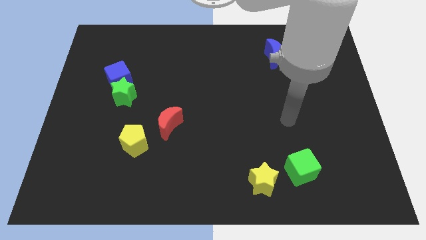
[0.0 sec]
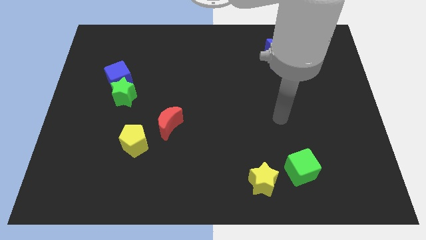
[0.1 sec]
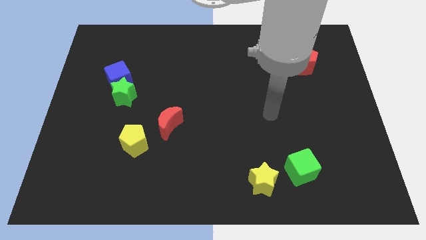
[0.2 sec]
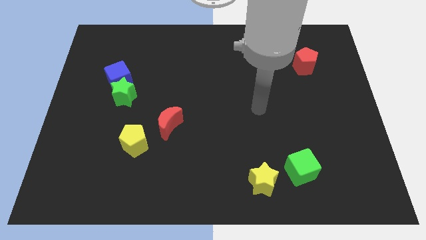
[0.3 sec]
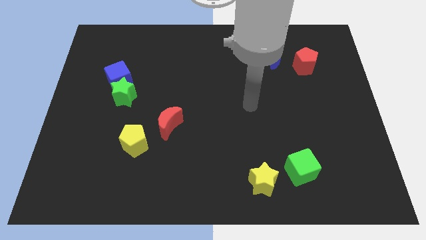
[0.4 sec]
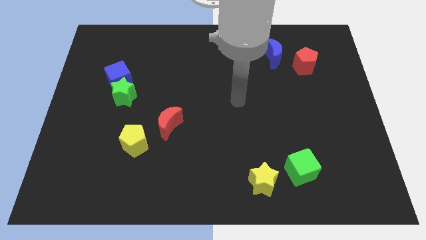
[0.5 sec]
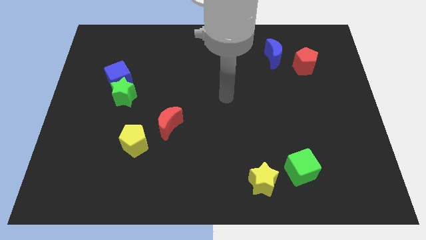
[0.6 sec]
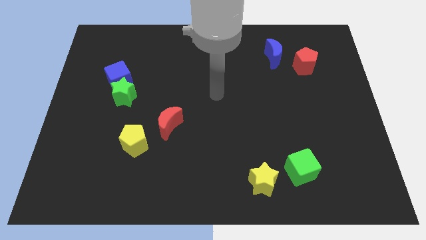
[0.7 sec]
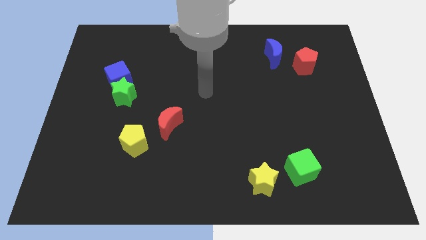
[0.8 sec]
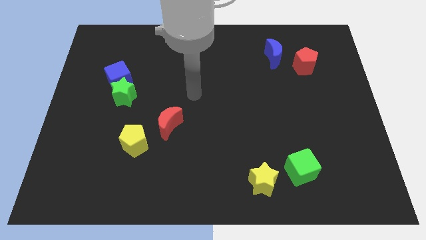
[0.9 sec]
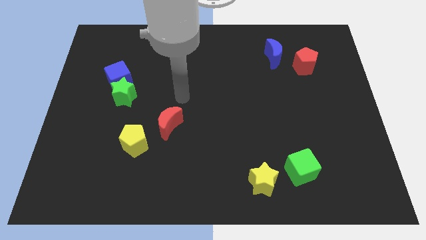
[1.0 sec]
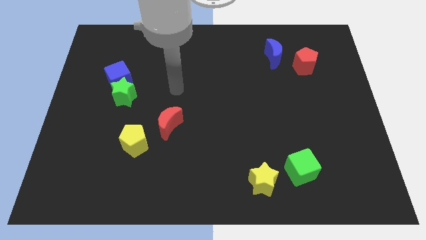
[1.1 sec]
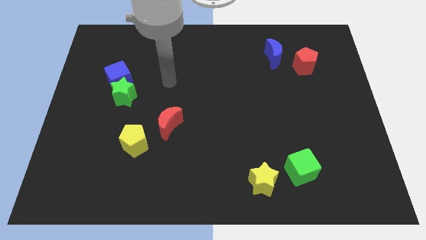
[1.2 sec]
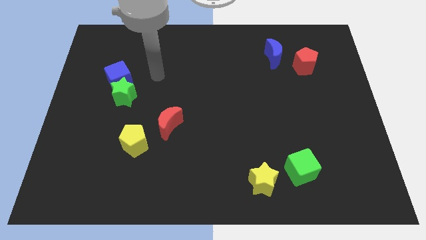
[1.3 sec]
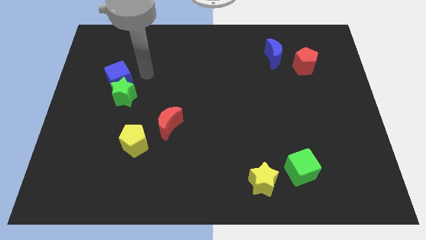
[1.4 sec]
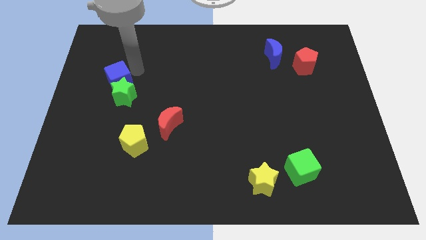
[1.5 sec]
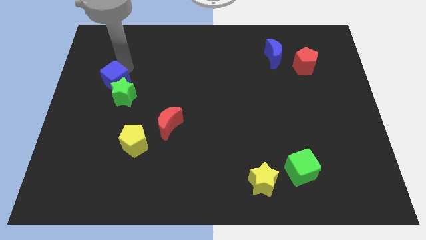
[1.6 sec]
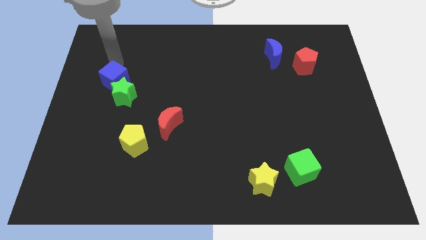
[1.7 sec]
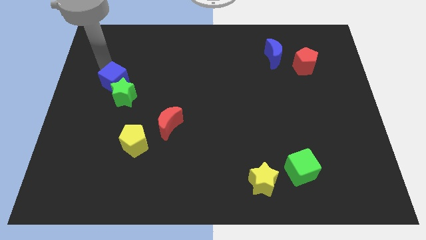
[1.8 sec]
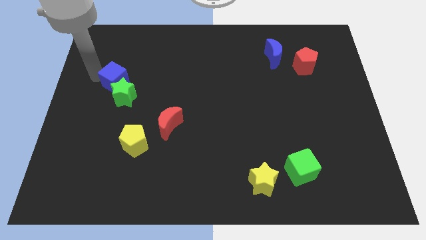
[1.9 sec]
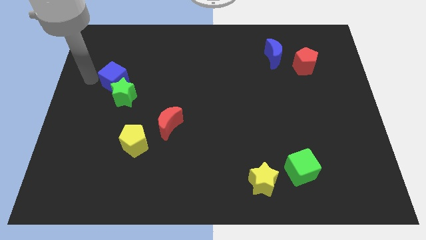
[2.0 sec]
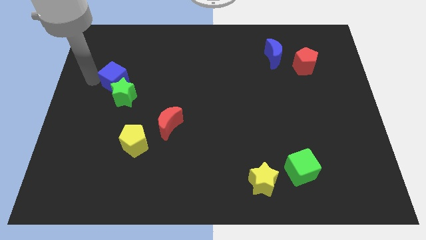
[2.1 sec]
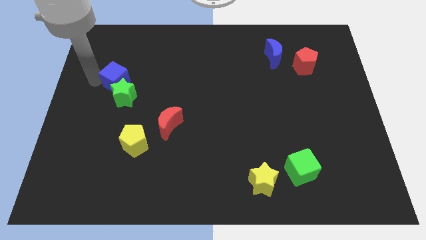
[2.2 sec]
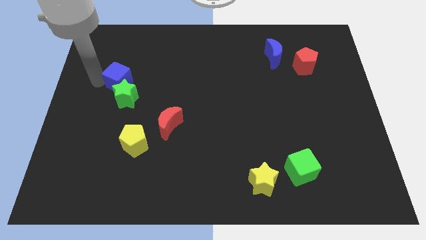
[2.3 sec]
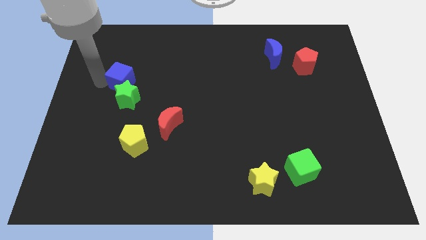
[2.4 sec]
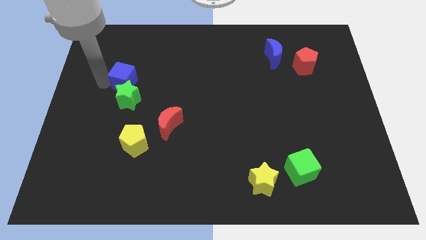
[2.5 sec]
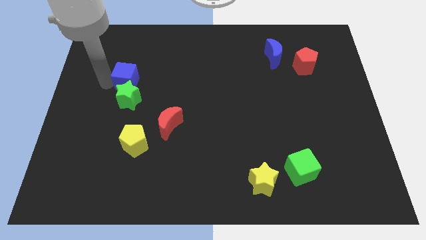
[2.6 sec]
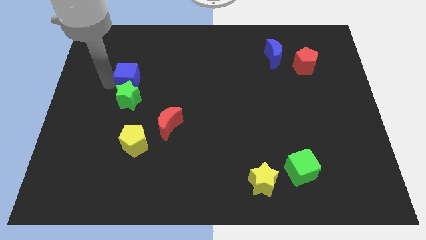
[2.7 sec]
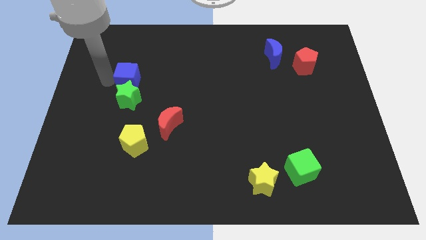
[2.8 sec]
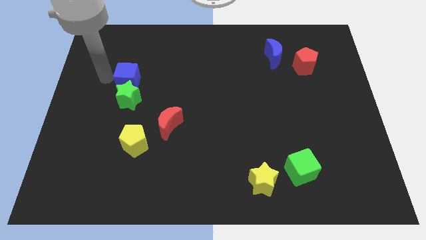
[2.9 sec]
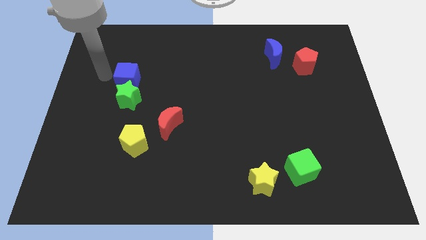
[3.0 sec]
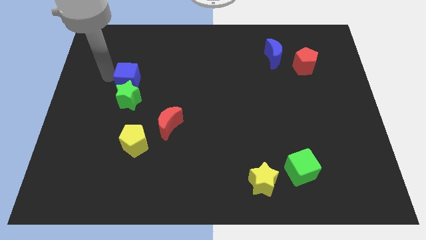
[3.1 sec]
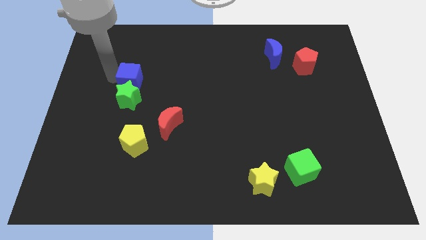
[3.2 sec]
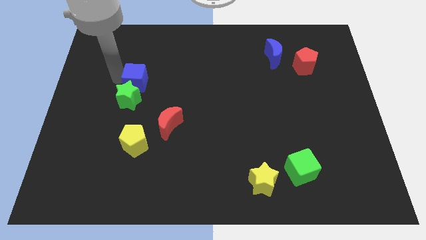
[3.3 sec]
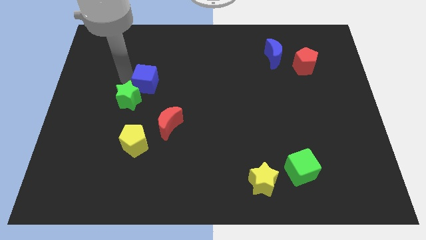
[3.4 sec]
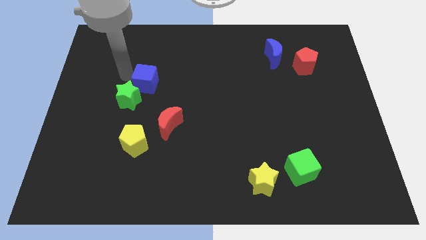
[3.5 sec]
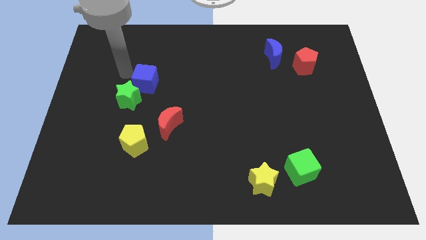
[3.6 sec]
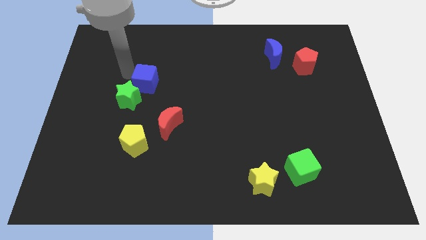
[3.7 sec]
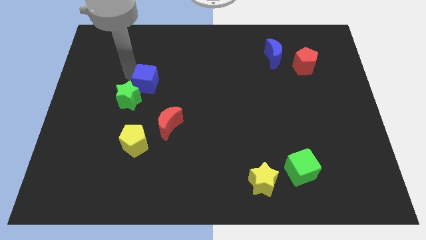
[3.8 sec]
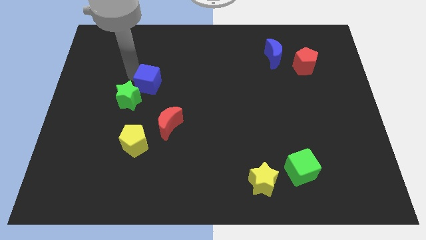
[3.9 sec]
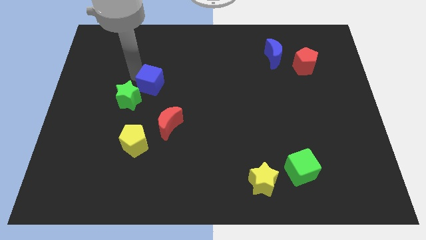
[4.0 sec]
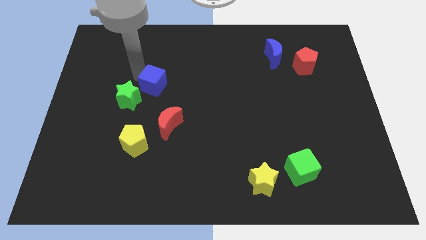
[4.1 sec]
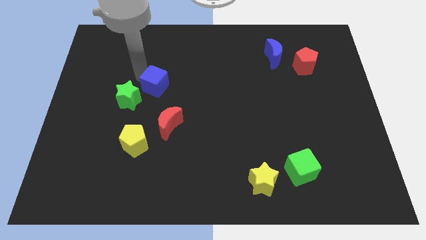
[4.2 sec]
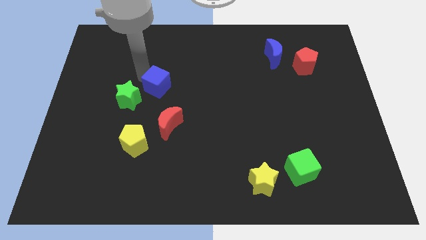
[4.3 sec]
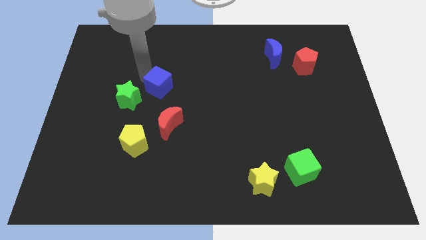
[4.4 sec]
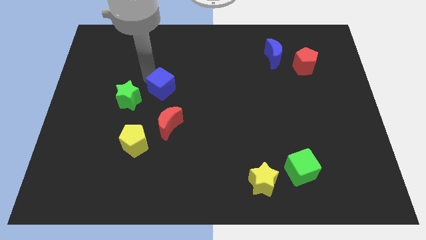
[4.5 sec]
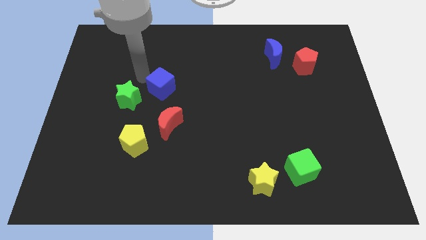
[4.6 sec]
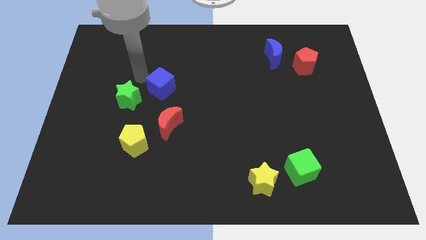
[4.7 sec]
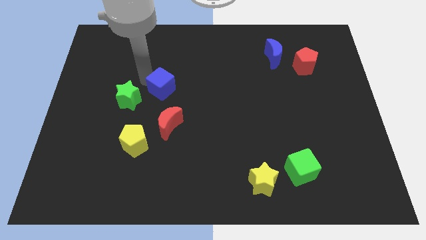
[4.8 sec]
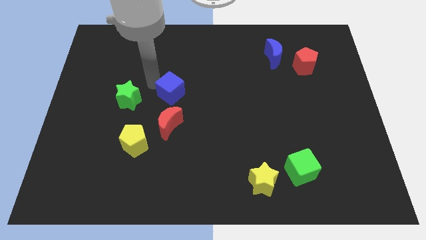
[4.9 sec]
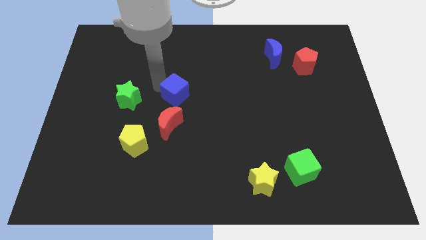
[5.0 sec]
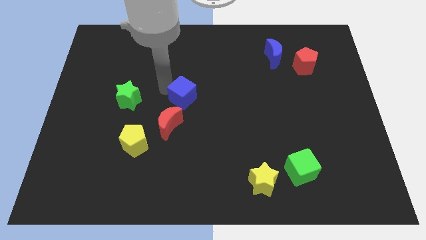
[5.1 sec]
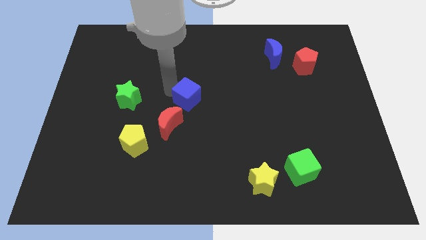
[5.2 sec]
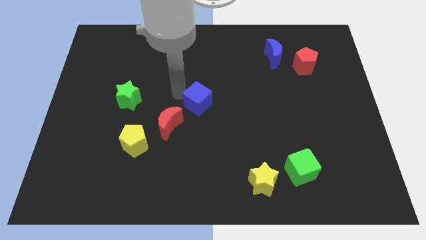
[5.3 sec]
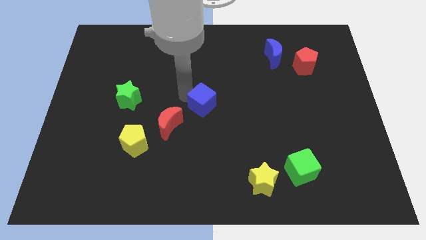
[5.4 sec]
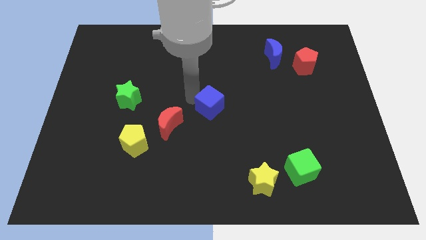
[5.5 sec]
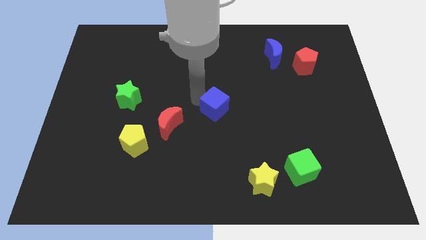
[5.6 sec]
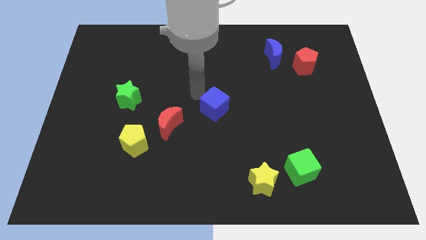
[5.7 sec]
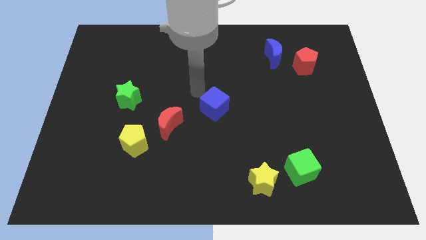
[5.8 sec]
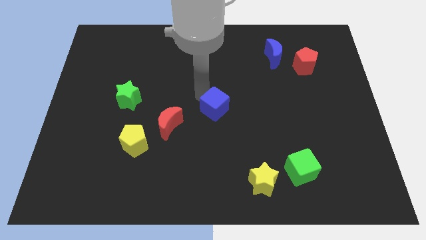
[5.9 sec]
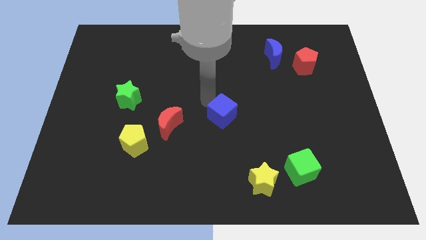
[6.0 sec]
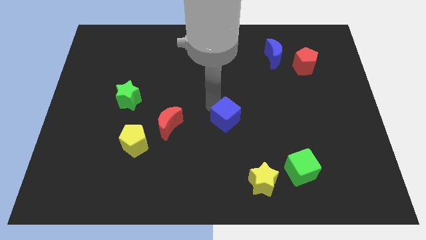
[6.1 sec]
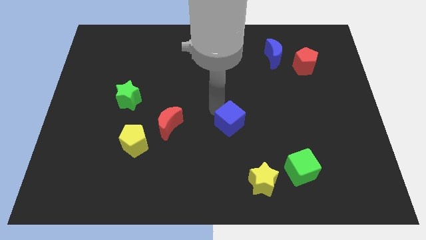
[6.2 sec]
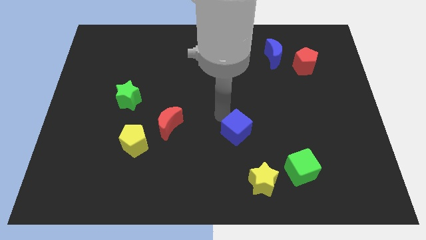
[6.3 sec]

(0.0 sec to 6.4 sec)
slide the blue cube to the top of the yellow star

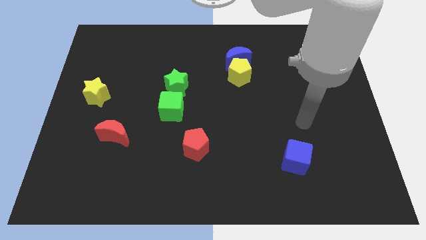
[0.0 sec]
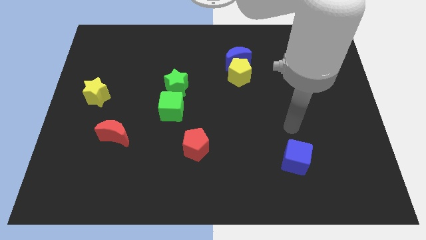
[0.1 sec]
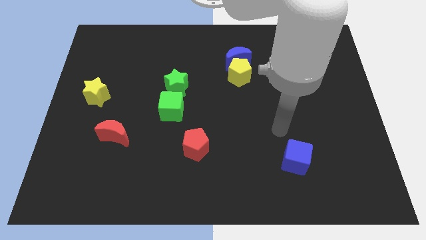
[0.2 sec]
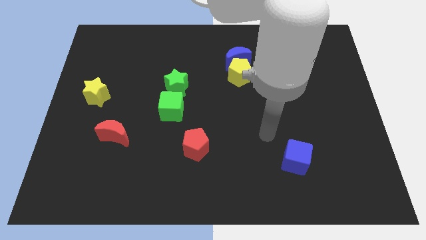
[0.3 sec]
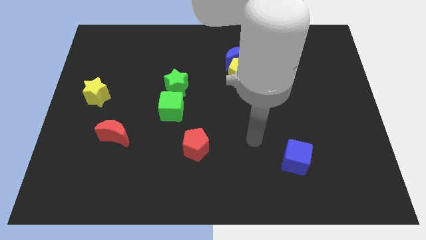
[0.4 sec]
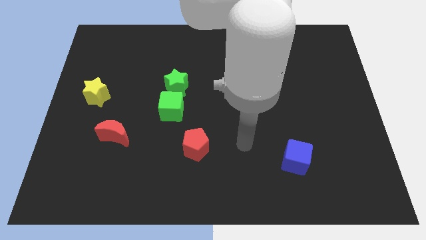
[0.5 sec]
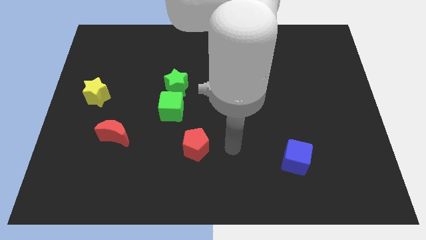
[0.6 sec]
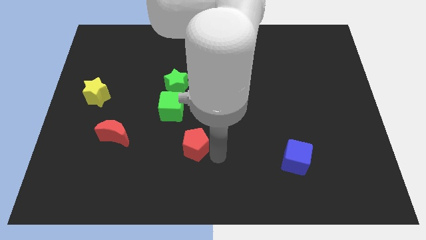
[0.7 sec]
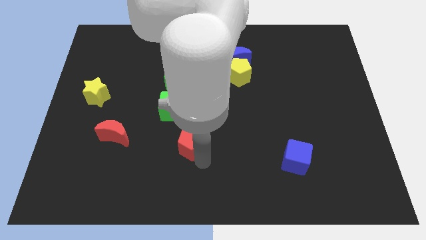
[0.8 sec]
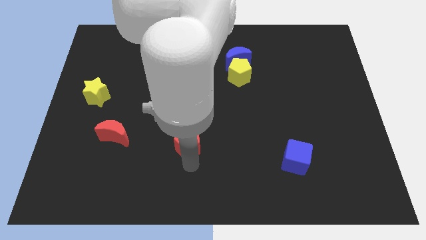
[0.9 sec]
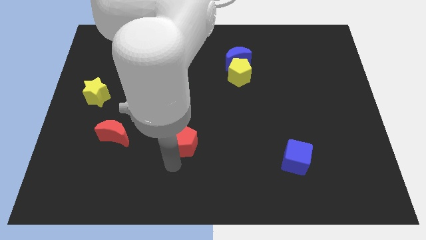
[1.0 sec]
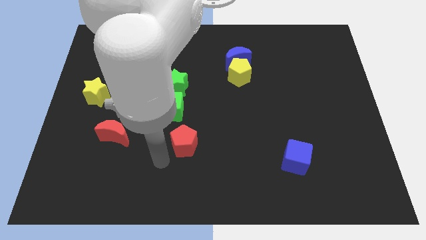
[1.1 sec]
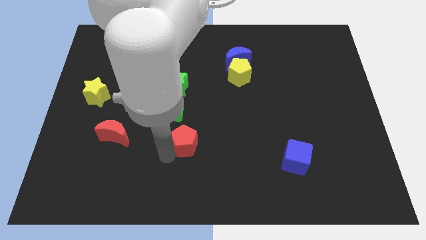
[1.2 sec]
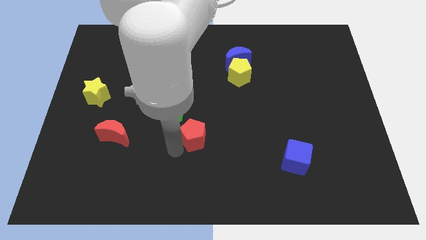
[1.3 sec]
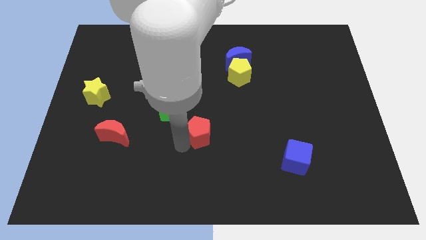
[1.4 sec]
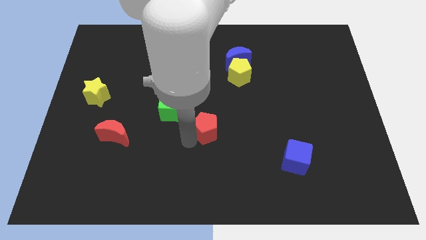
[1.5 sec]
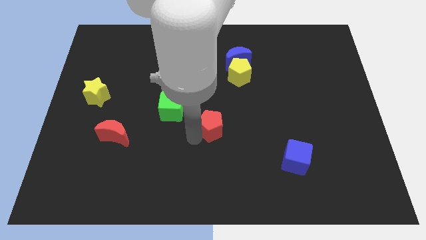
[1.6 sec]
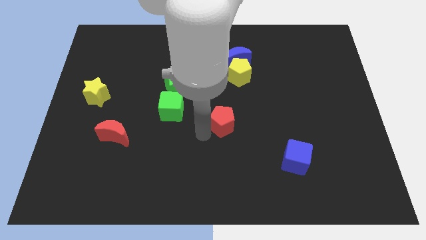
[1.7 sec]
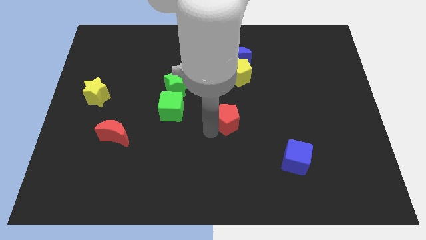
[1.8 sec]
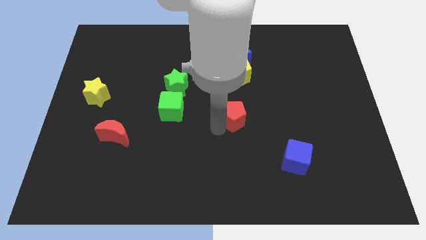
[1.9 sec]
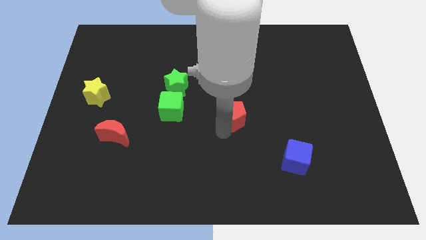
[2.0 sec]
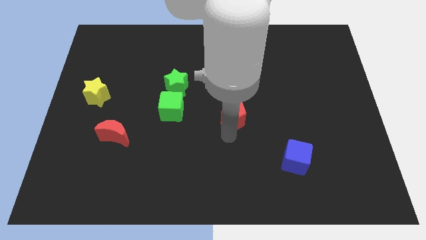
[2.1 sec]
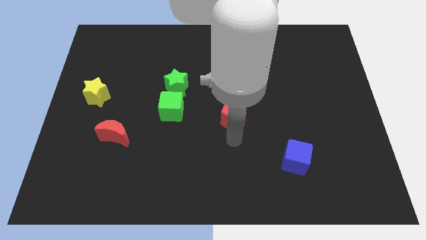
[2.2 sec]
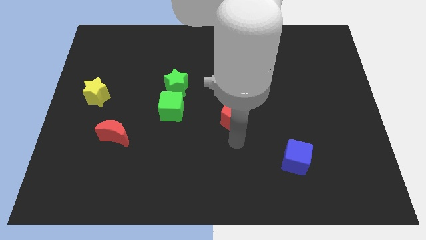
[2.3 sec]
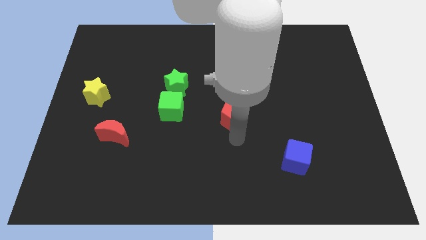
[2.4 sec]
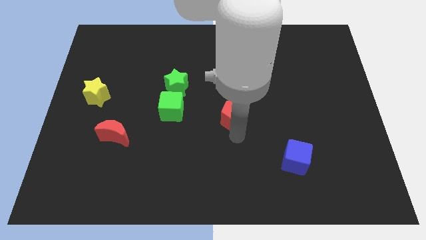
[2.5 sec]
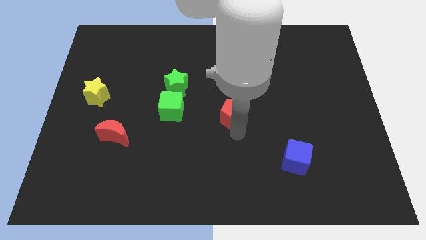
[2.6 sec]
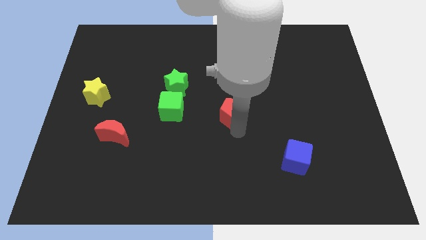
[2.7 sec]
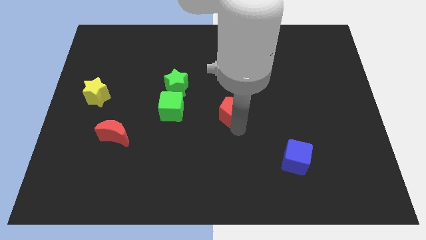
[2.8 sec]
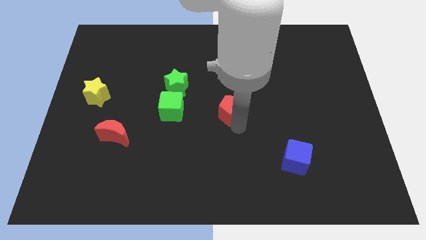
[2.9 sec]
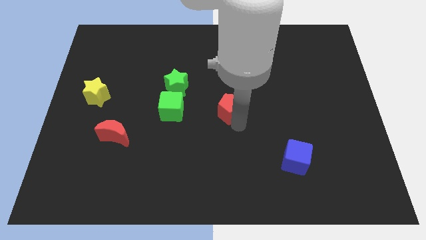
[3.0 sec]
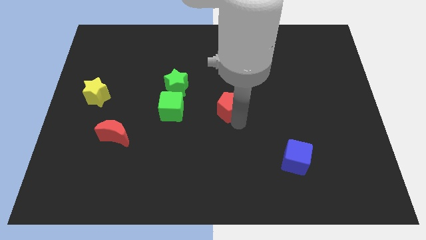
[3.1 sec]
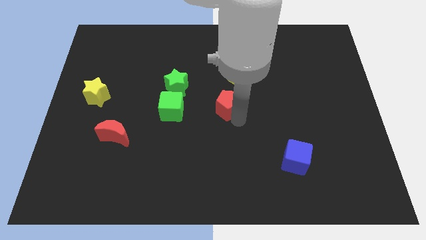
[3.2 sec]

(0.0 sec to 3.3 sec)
move the red pentagon below the blue moon
